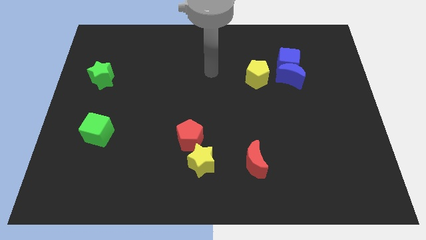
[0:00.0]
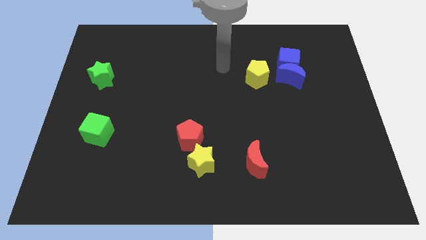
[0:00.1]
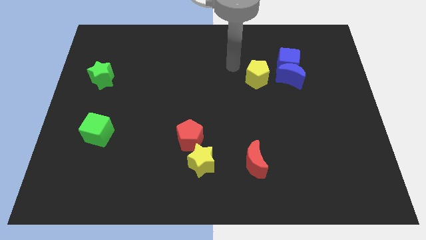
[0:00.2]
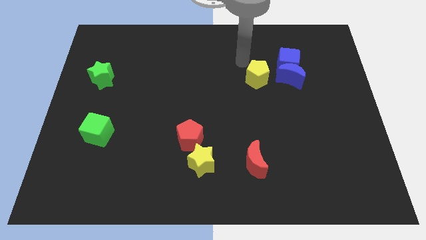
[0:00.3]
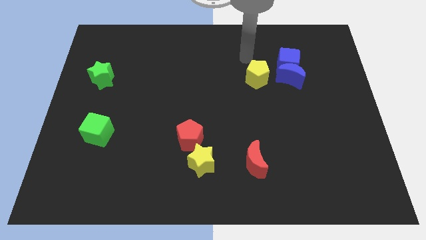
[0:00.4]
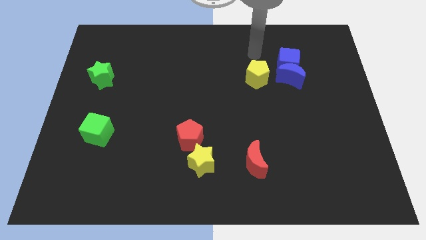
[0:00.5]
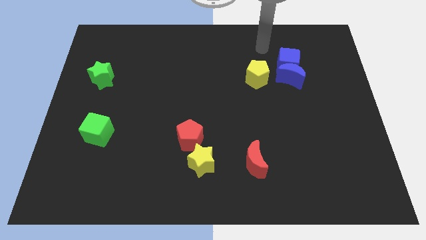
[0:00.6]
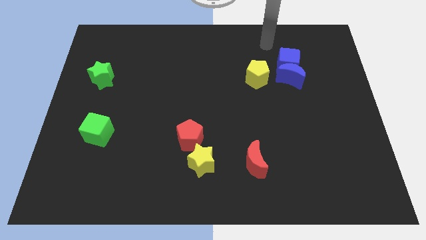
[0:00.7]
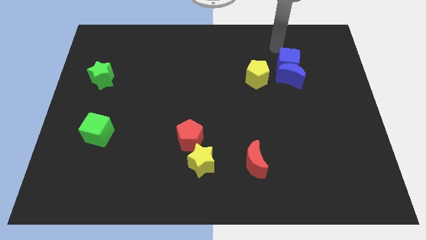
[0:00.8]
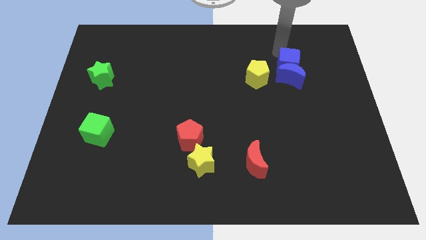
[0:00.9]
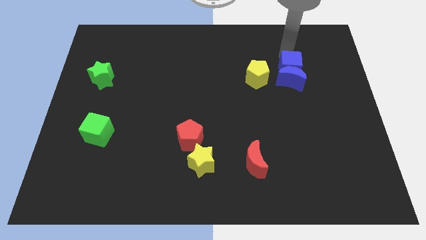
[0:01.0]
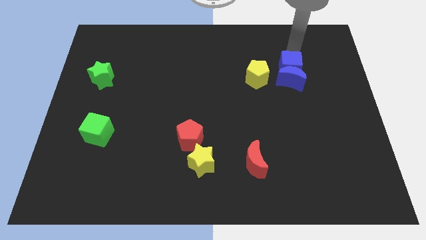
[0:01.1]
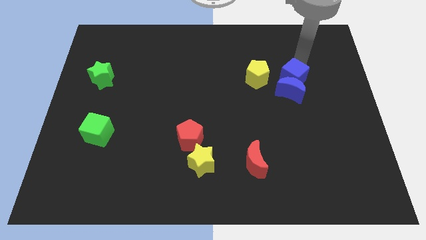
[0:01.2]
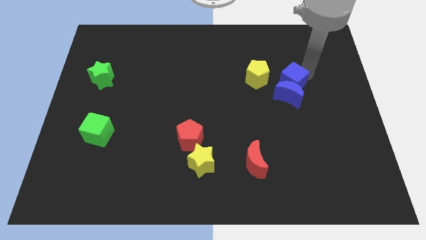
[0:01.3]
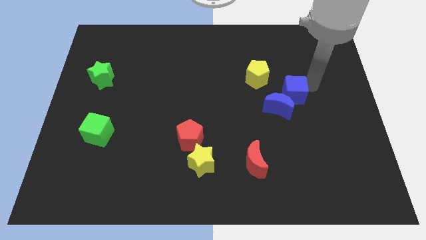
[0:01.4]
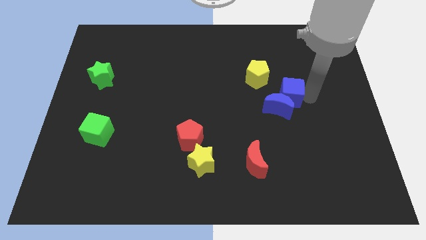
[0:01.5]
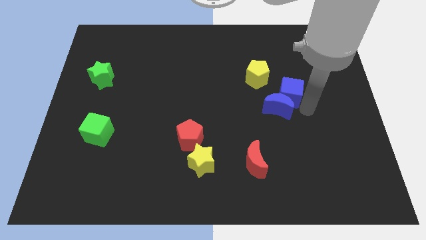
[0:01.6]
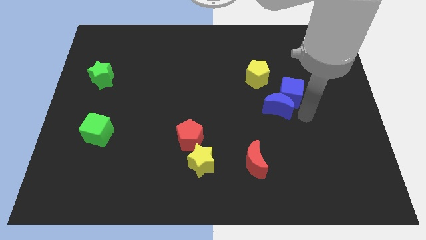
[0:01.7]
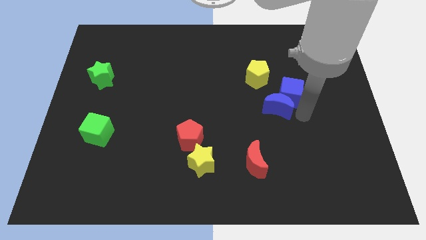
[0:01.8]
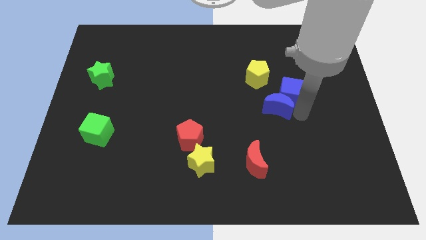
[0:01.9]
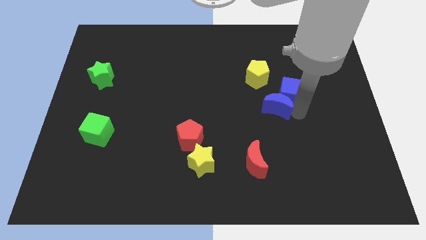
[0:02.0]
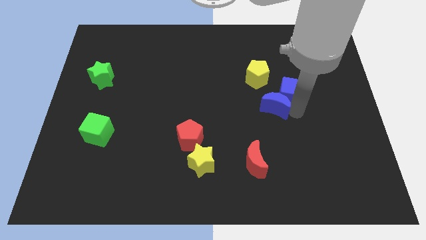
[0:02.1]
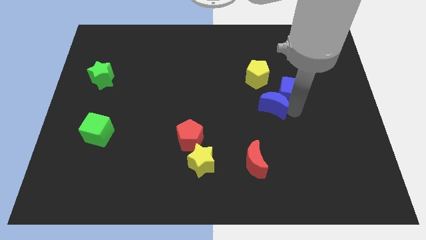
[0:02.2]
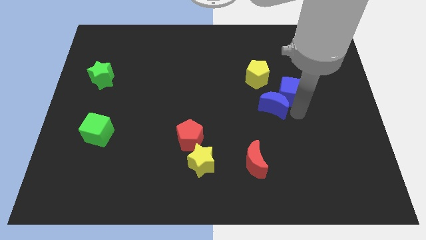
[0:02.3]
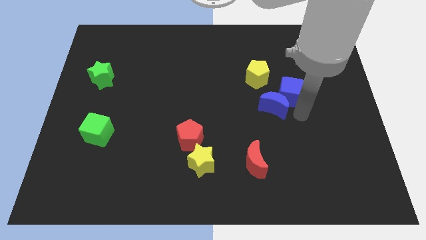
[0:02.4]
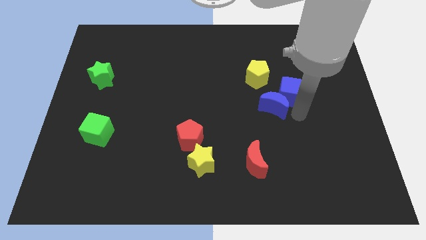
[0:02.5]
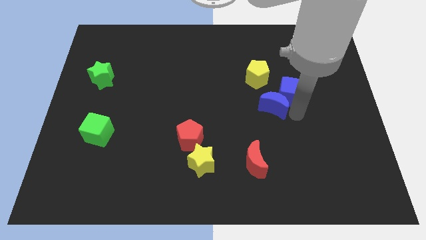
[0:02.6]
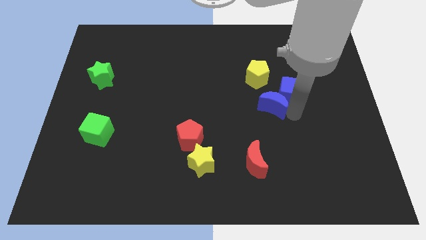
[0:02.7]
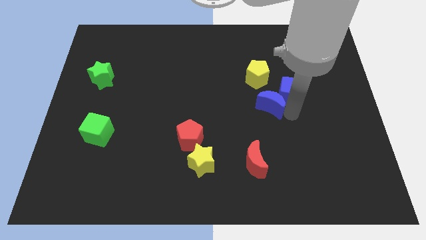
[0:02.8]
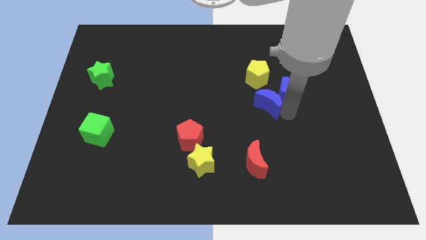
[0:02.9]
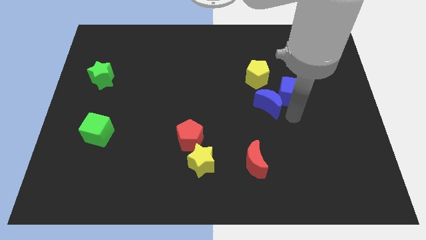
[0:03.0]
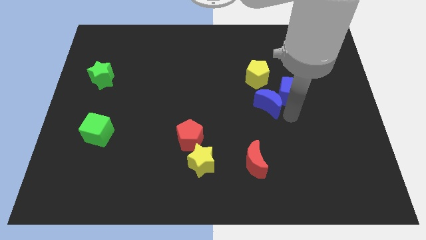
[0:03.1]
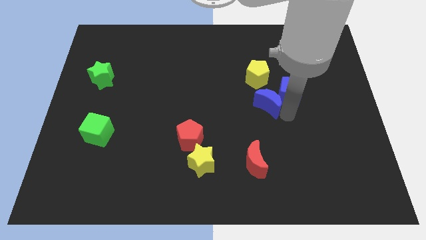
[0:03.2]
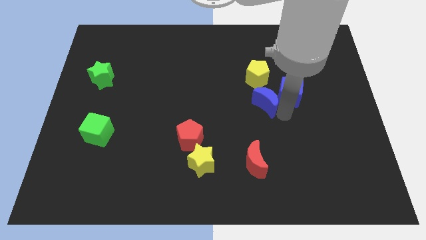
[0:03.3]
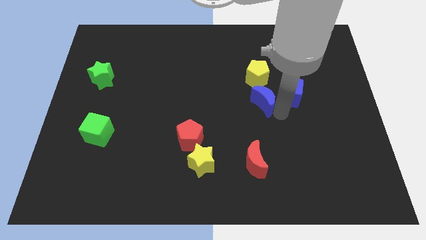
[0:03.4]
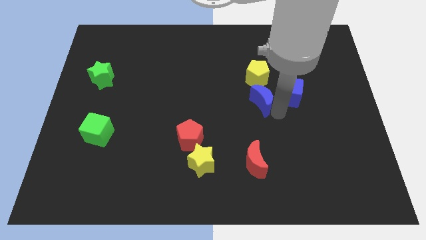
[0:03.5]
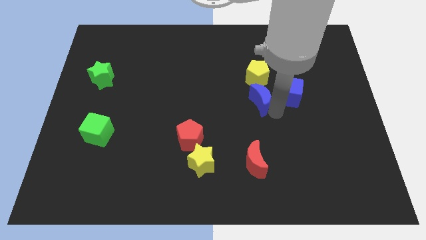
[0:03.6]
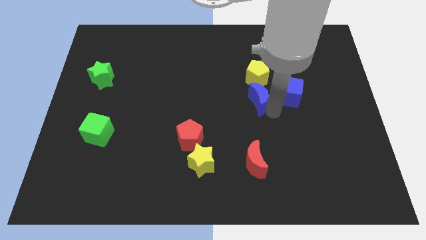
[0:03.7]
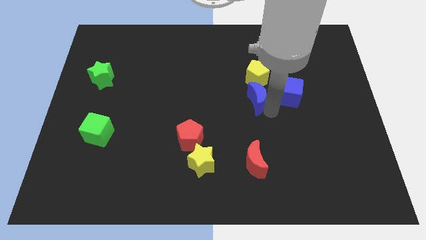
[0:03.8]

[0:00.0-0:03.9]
slightly move the blue moon to the left

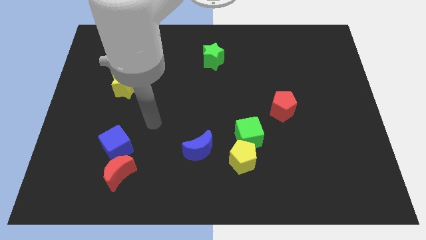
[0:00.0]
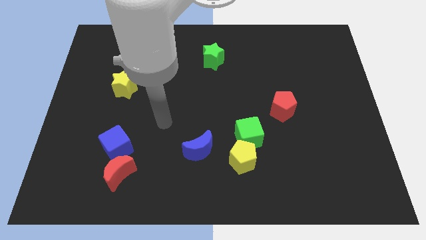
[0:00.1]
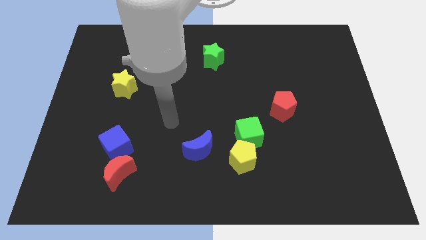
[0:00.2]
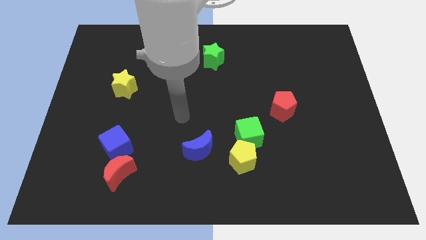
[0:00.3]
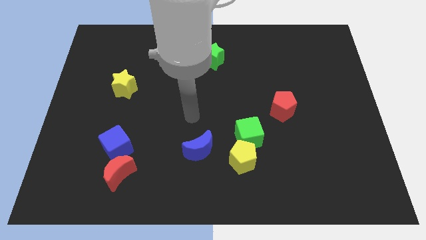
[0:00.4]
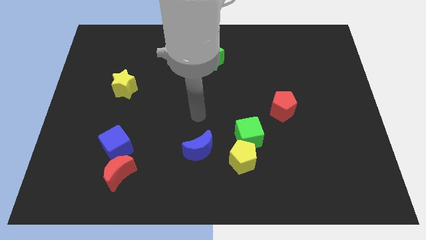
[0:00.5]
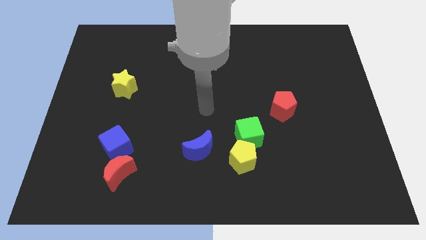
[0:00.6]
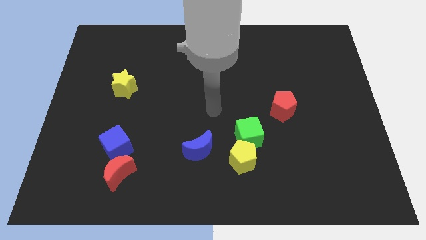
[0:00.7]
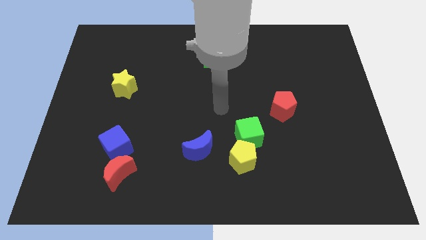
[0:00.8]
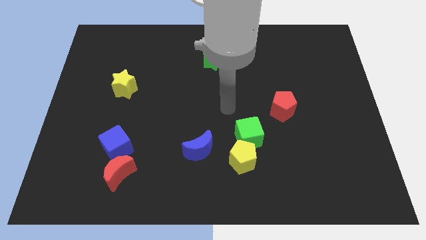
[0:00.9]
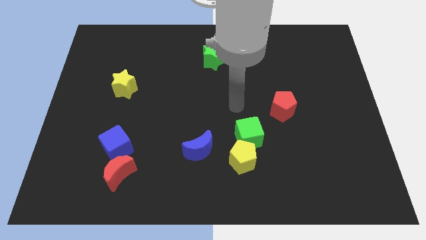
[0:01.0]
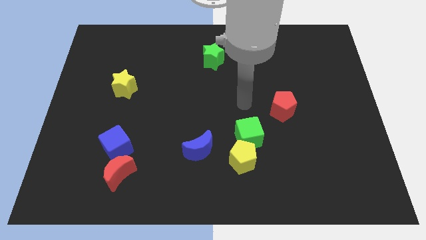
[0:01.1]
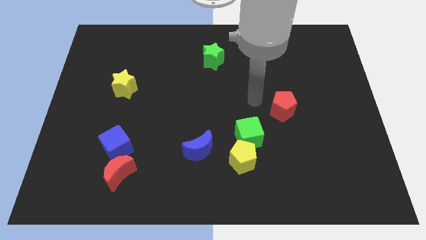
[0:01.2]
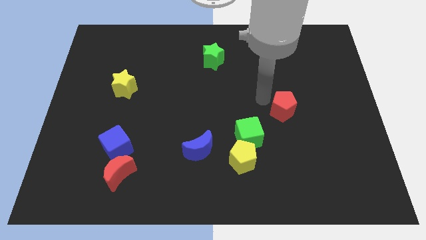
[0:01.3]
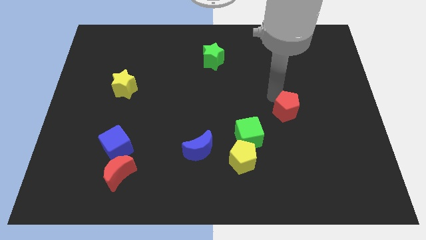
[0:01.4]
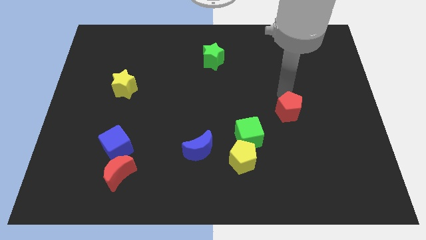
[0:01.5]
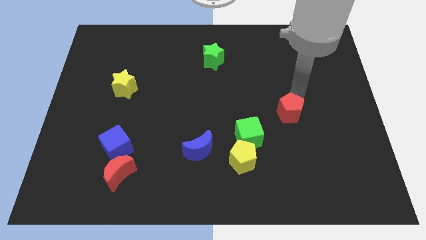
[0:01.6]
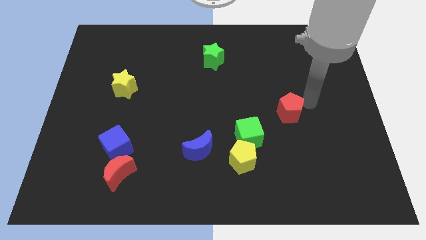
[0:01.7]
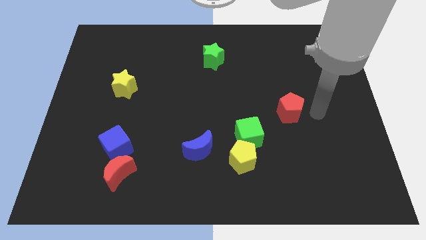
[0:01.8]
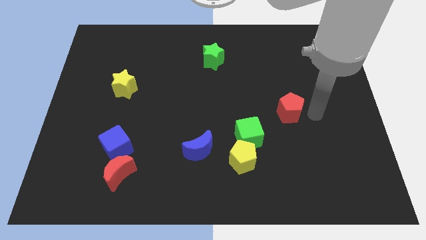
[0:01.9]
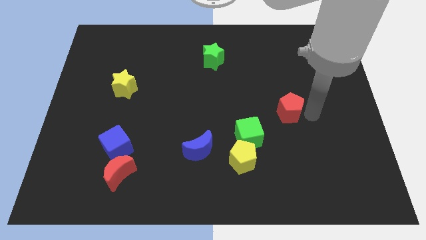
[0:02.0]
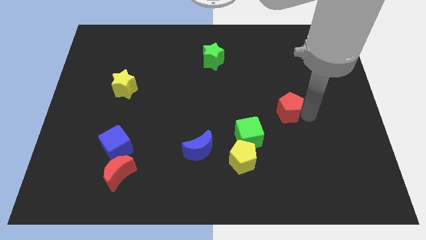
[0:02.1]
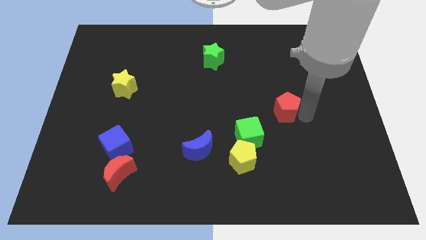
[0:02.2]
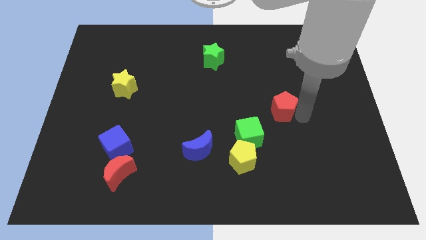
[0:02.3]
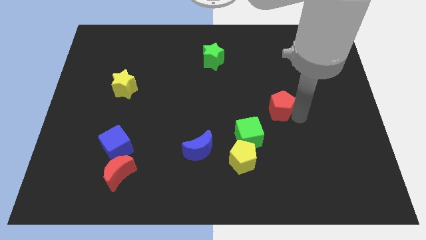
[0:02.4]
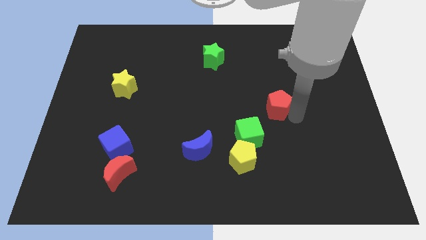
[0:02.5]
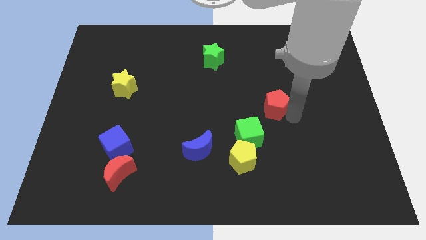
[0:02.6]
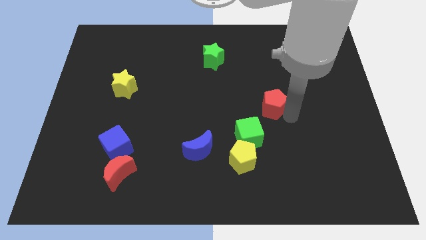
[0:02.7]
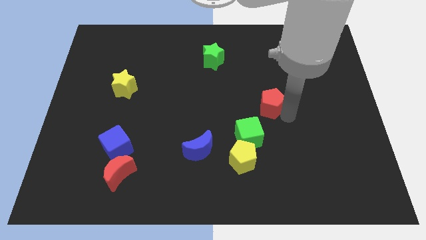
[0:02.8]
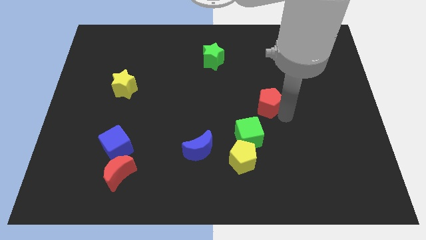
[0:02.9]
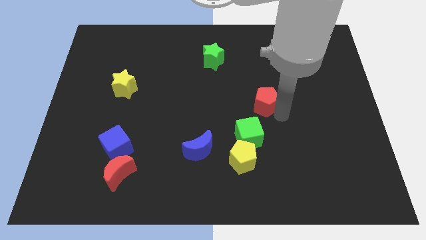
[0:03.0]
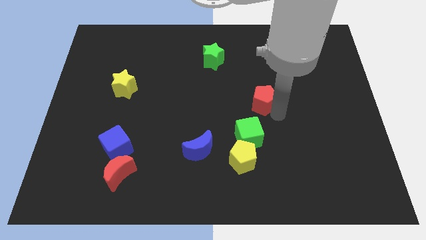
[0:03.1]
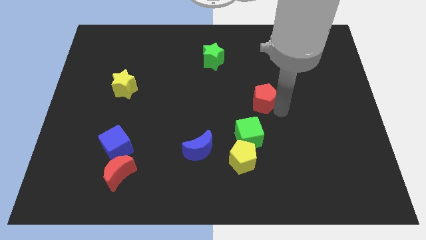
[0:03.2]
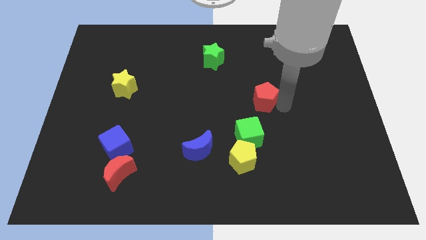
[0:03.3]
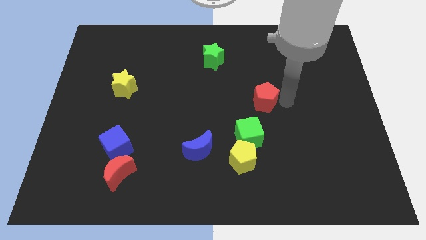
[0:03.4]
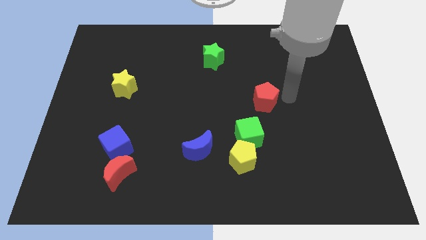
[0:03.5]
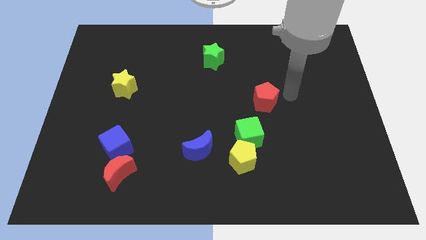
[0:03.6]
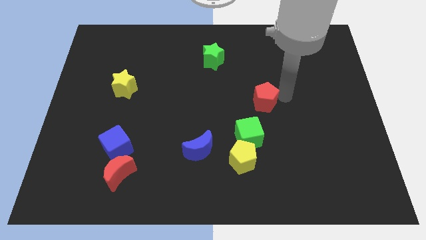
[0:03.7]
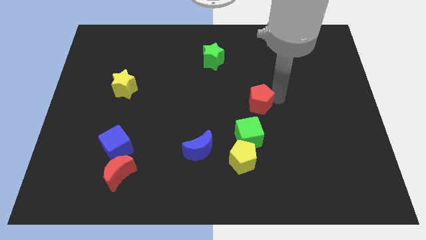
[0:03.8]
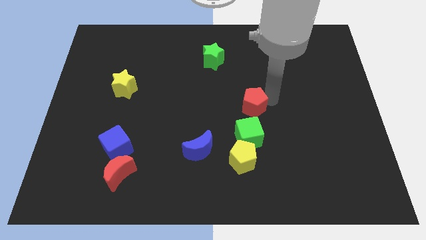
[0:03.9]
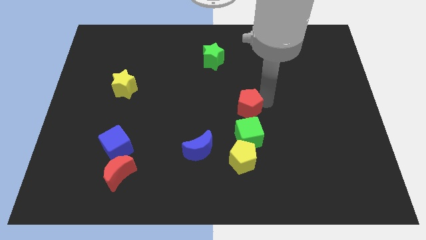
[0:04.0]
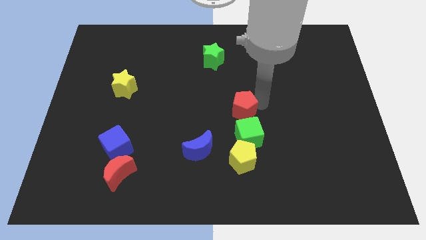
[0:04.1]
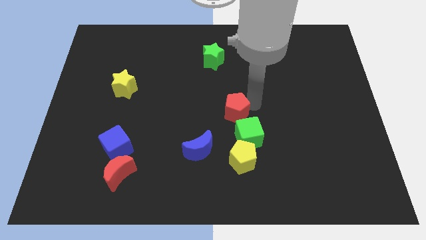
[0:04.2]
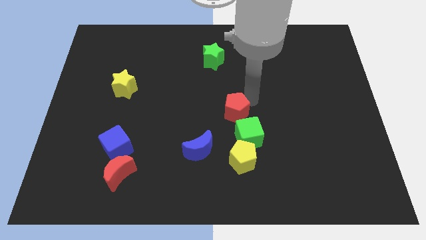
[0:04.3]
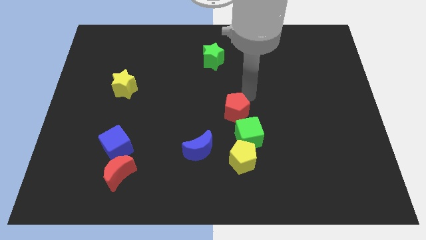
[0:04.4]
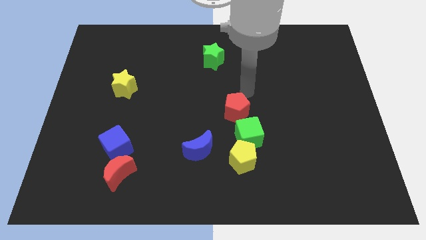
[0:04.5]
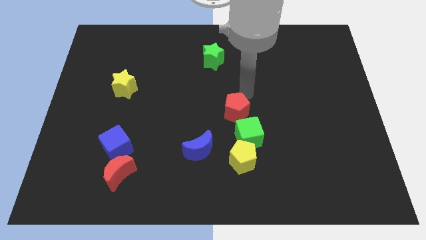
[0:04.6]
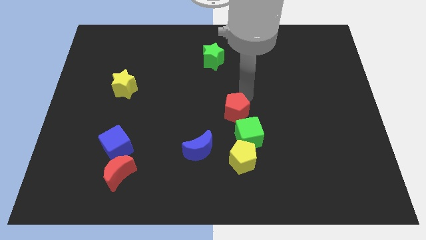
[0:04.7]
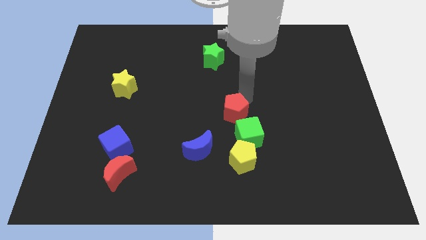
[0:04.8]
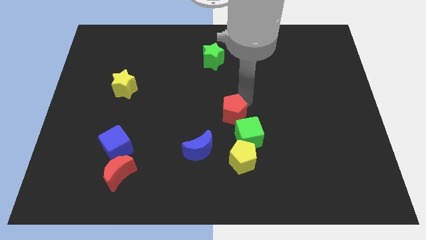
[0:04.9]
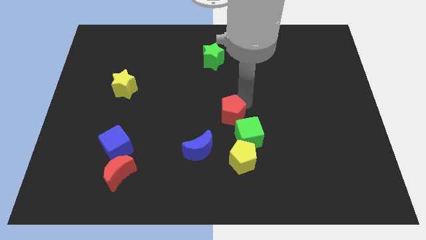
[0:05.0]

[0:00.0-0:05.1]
move the red pentagon downwards and left diagonally a little bit
